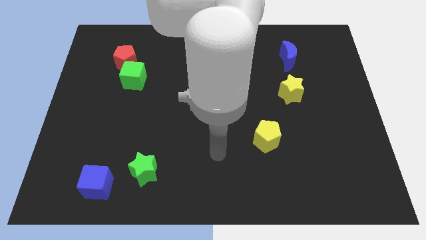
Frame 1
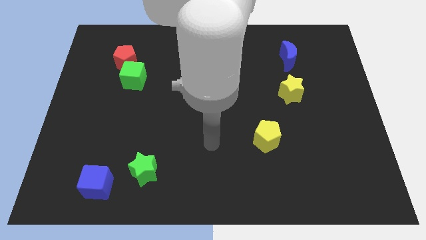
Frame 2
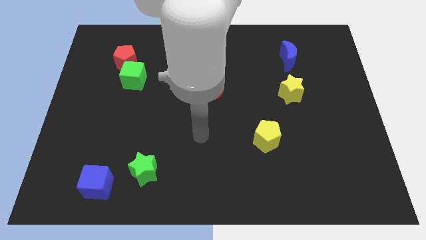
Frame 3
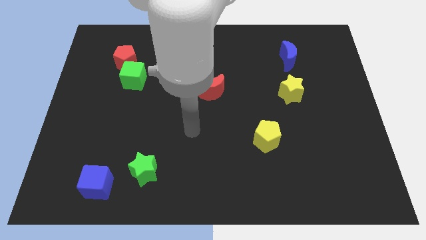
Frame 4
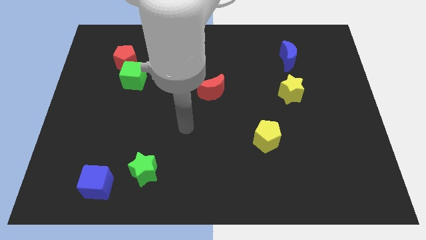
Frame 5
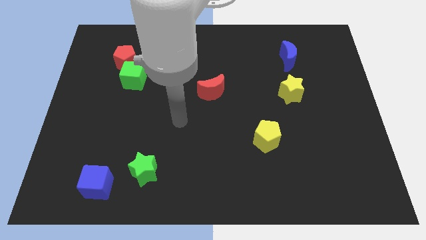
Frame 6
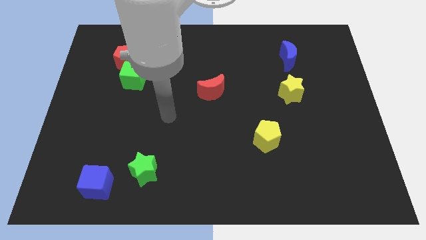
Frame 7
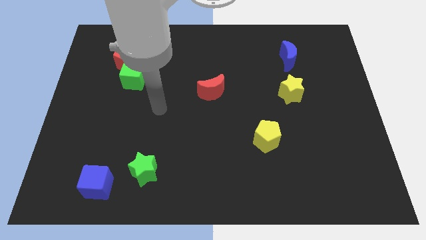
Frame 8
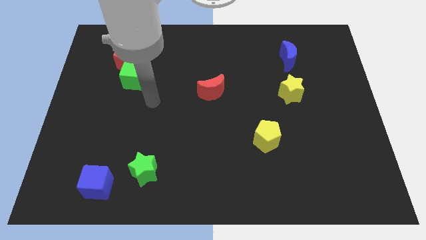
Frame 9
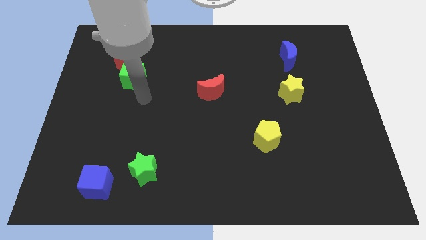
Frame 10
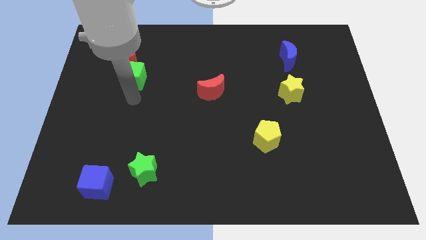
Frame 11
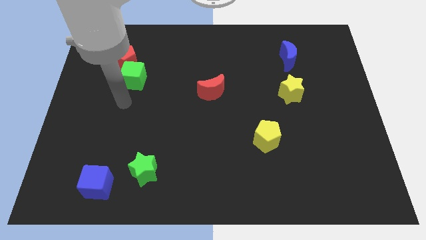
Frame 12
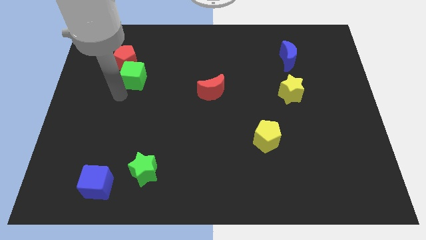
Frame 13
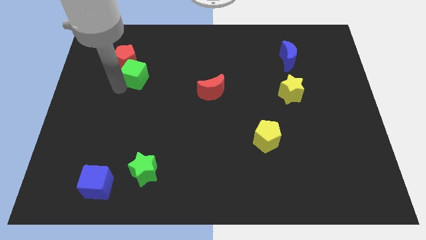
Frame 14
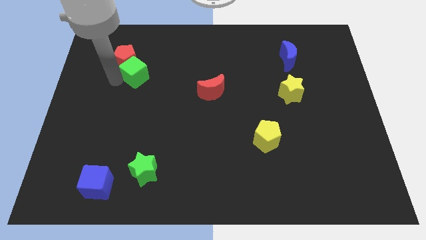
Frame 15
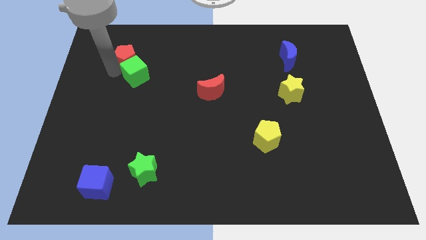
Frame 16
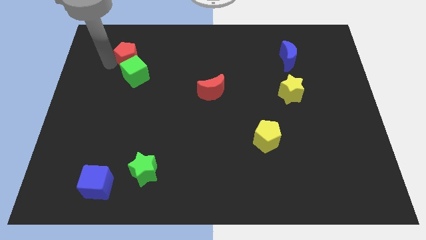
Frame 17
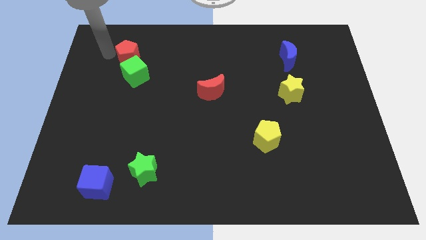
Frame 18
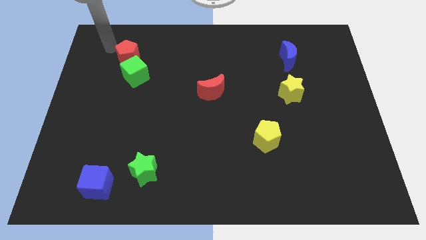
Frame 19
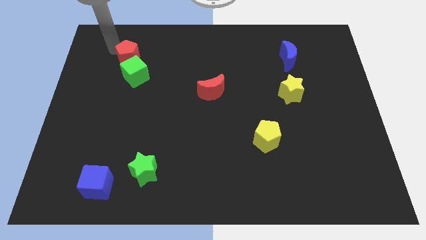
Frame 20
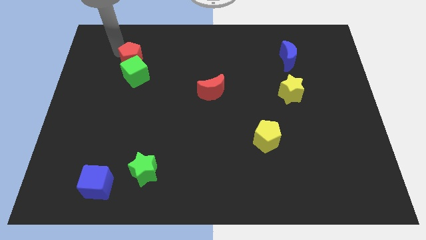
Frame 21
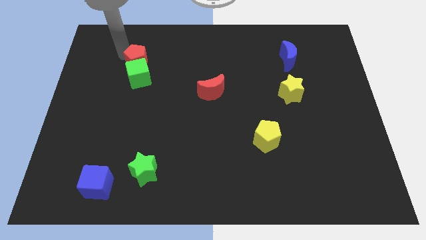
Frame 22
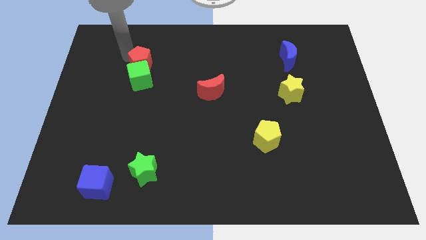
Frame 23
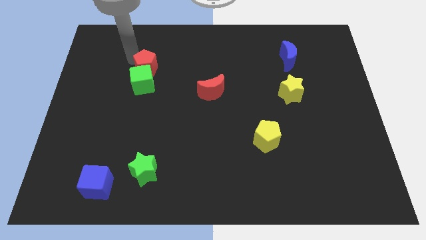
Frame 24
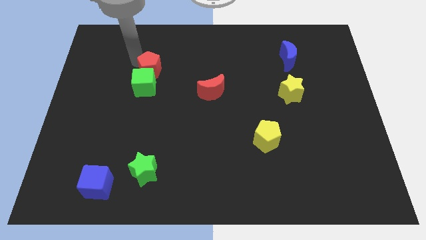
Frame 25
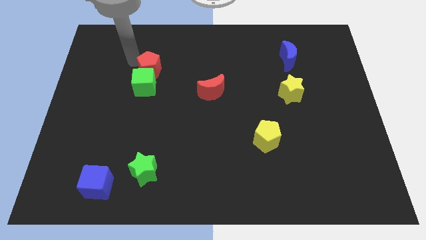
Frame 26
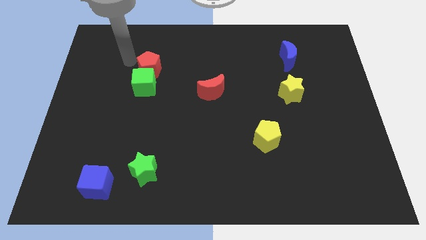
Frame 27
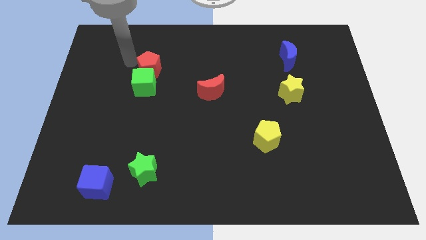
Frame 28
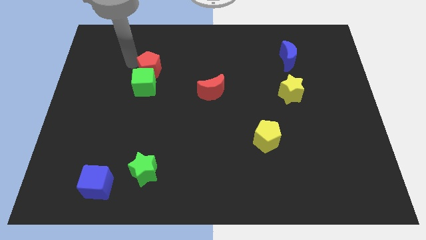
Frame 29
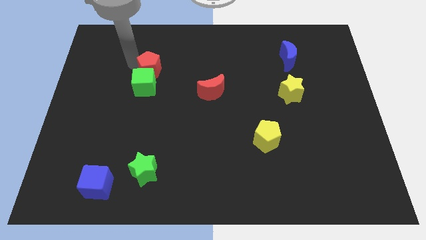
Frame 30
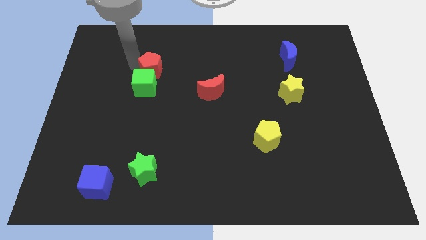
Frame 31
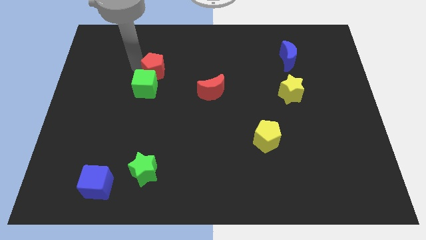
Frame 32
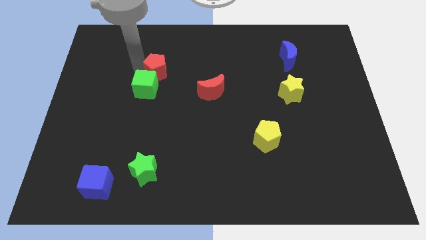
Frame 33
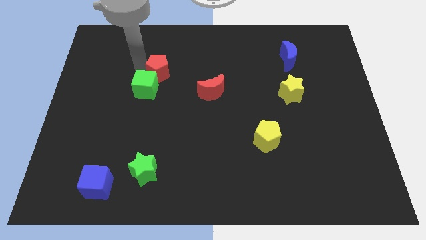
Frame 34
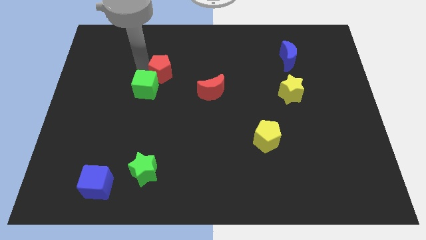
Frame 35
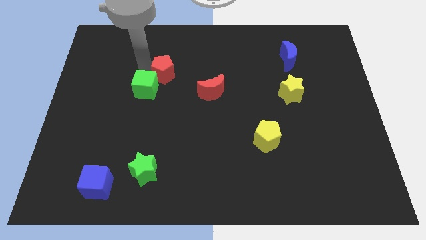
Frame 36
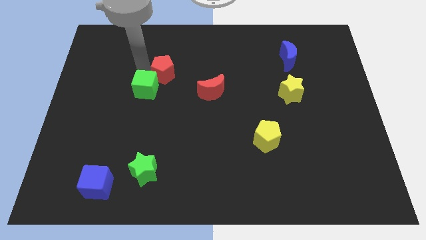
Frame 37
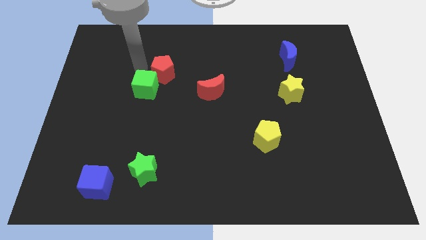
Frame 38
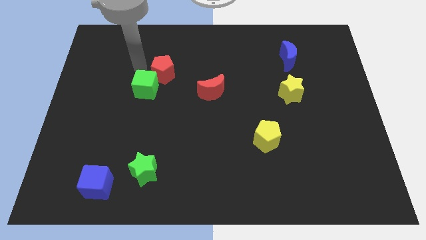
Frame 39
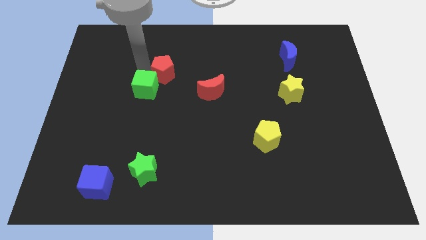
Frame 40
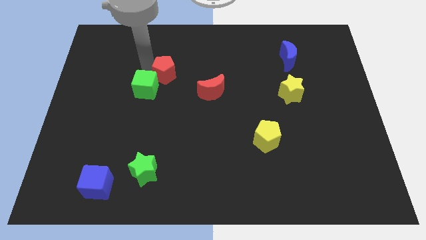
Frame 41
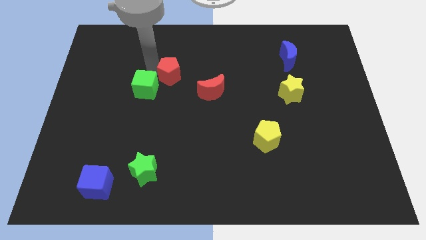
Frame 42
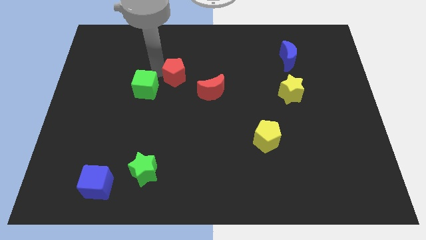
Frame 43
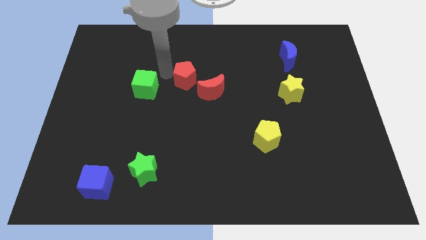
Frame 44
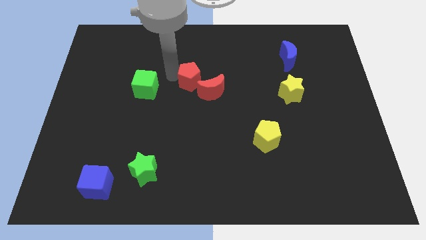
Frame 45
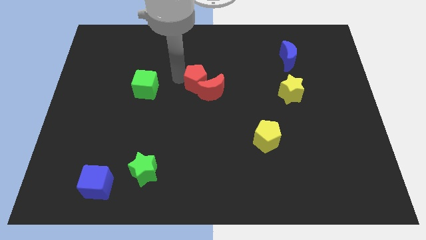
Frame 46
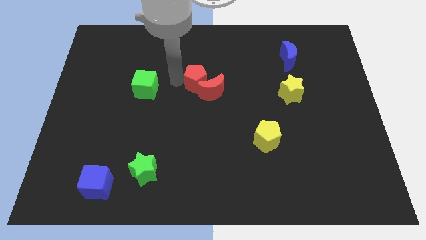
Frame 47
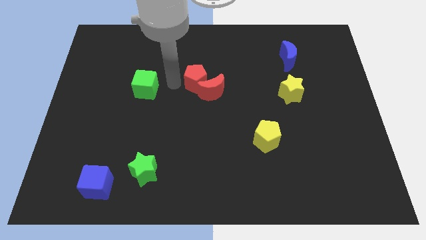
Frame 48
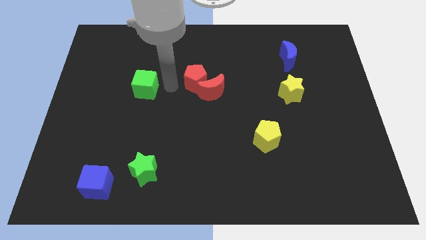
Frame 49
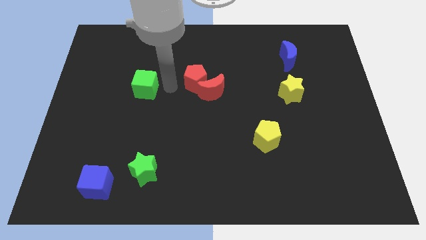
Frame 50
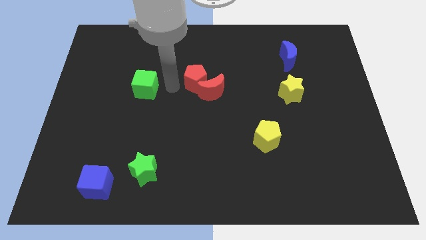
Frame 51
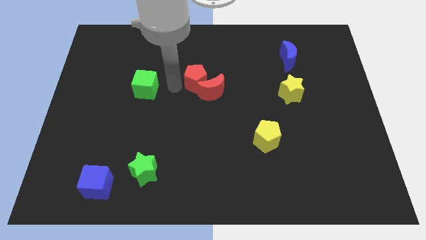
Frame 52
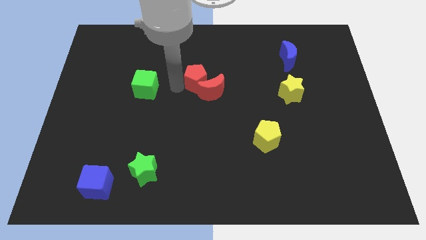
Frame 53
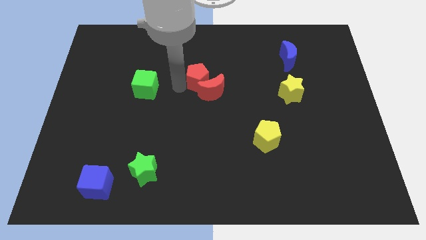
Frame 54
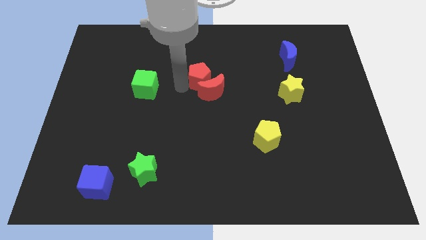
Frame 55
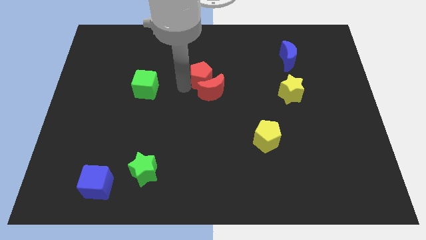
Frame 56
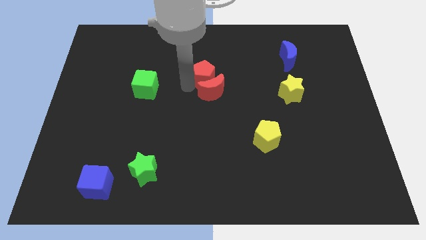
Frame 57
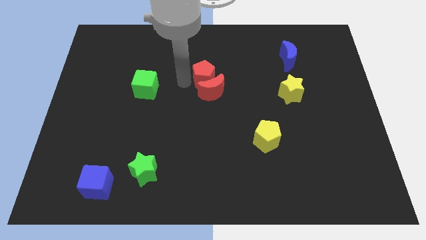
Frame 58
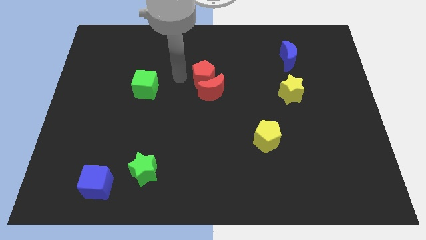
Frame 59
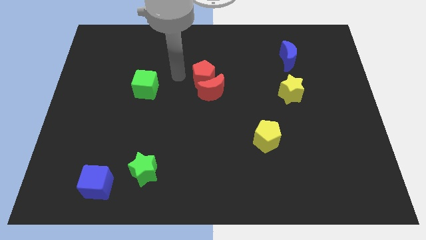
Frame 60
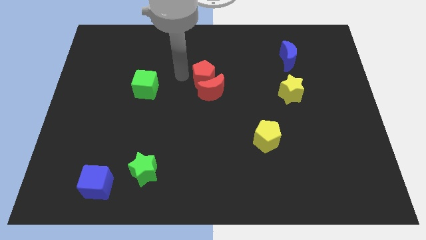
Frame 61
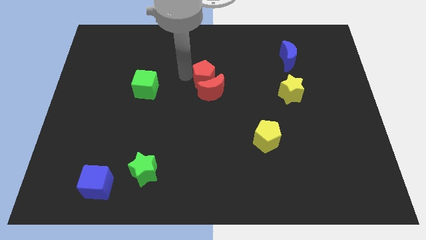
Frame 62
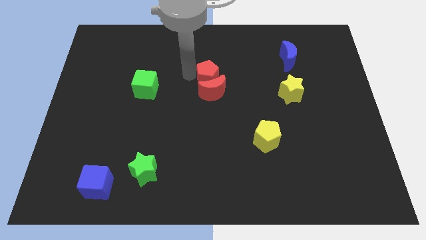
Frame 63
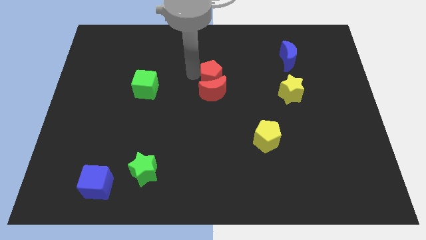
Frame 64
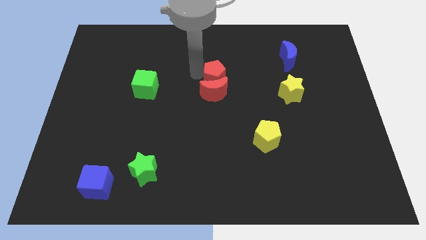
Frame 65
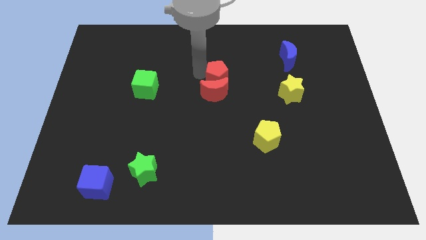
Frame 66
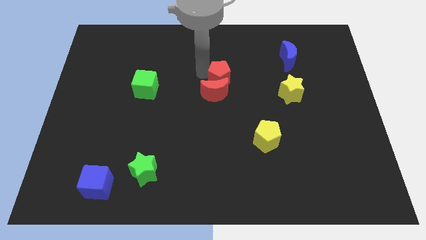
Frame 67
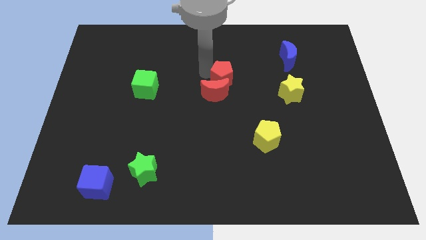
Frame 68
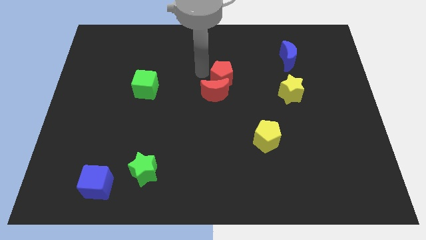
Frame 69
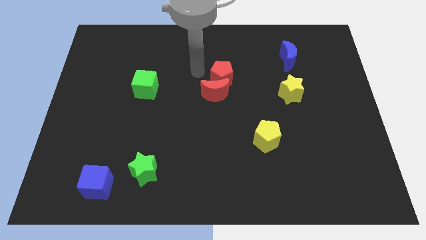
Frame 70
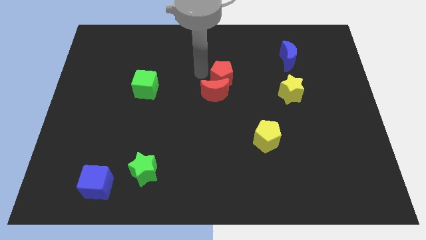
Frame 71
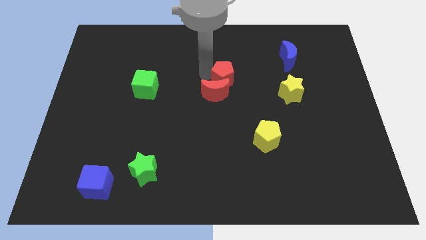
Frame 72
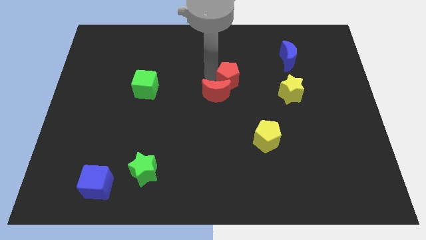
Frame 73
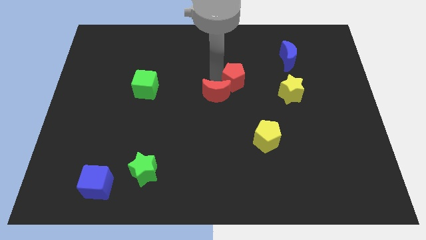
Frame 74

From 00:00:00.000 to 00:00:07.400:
push the red pentagon just left of the yellow star
